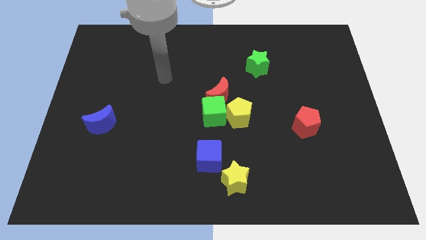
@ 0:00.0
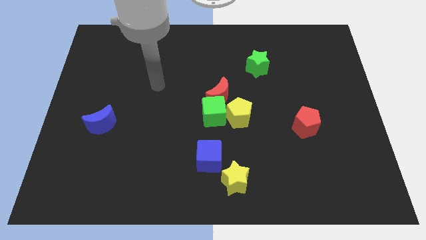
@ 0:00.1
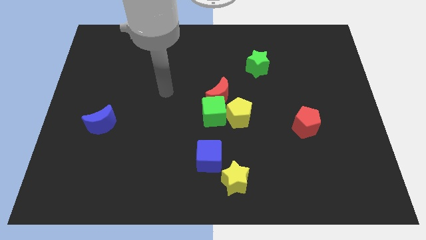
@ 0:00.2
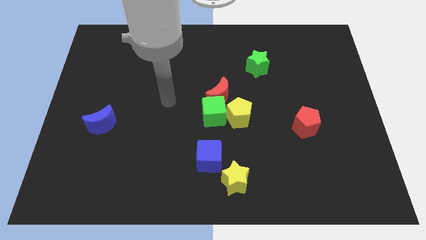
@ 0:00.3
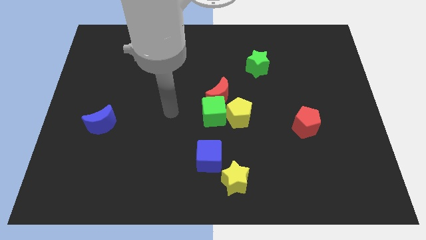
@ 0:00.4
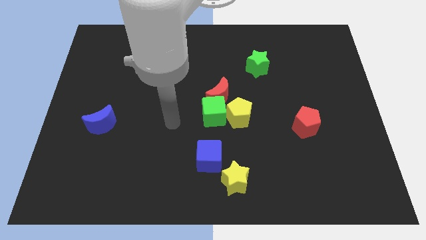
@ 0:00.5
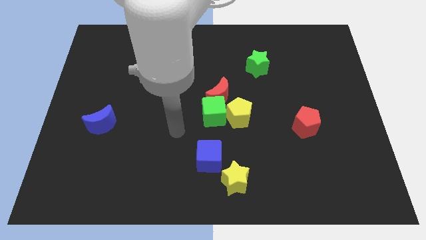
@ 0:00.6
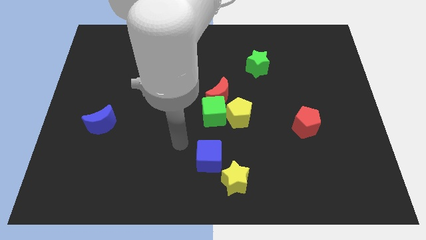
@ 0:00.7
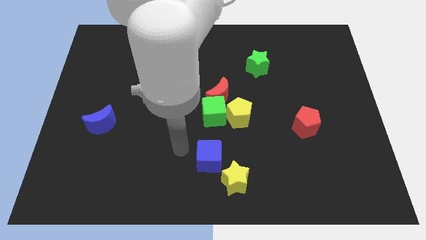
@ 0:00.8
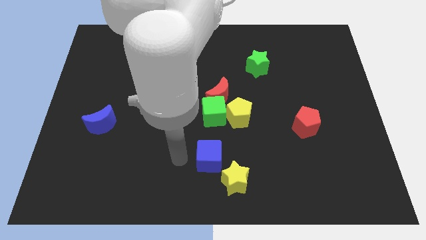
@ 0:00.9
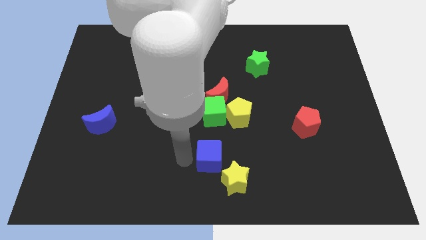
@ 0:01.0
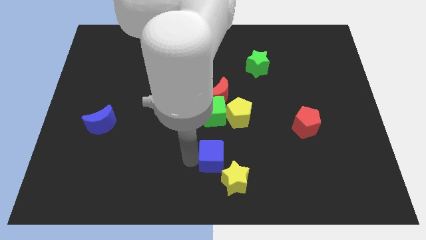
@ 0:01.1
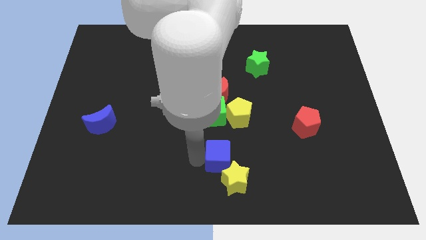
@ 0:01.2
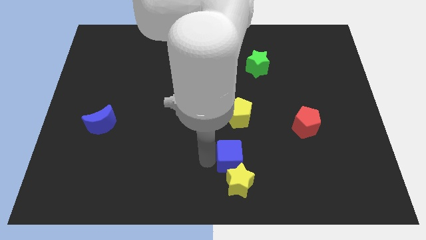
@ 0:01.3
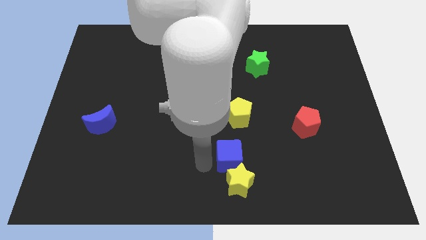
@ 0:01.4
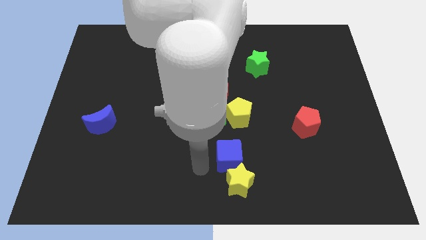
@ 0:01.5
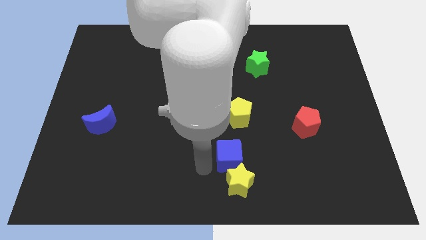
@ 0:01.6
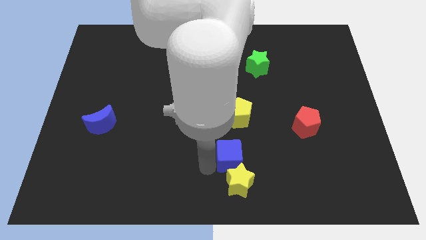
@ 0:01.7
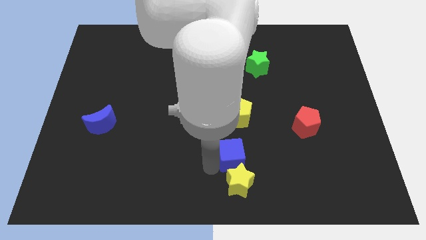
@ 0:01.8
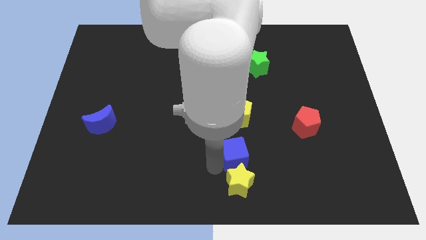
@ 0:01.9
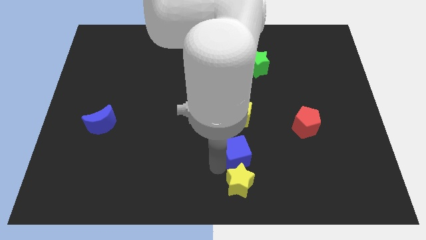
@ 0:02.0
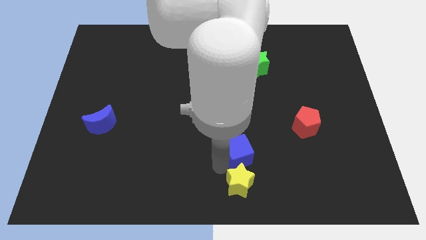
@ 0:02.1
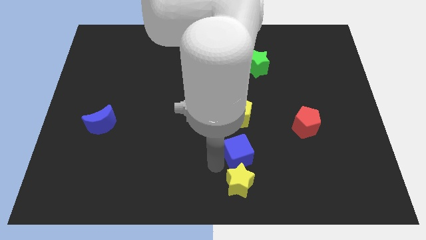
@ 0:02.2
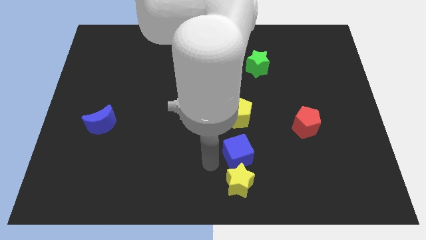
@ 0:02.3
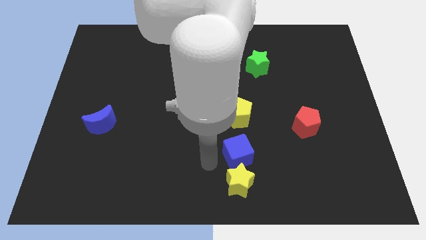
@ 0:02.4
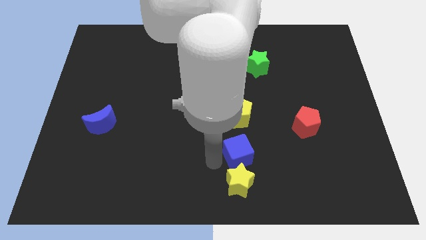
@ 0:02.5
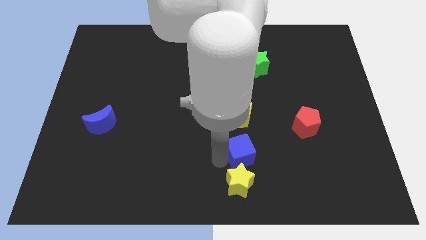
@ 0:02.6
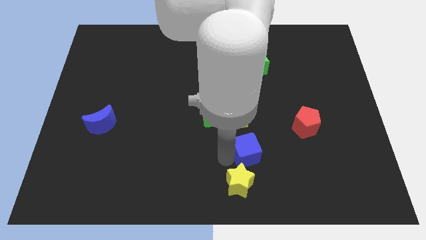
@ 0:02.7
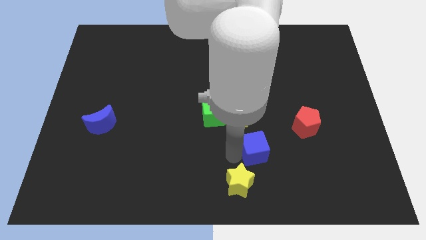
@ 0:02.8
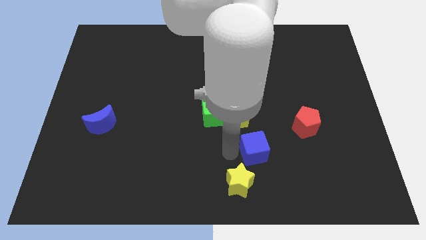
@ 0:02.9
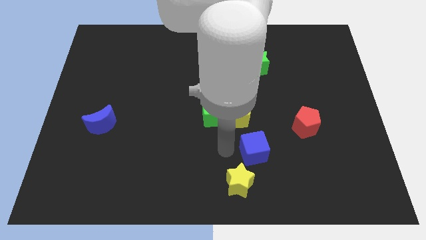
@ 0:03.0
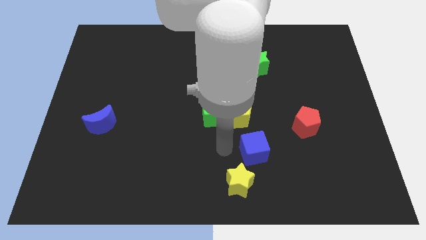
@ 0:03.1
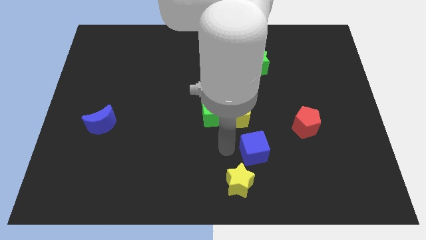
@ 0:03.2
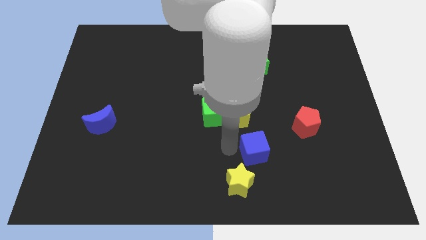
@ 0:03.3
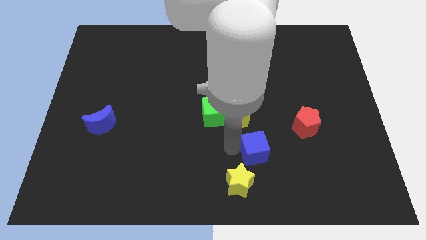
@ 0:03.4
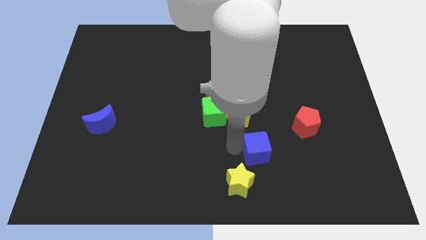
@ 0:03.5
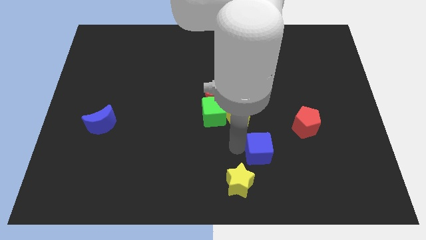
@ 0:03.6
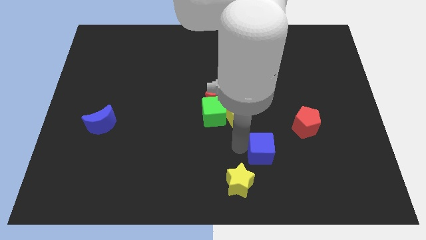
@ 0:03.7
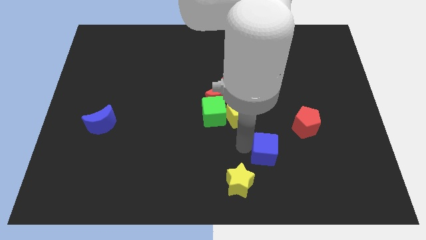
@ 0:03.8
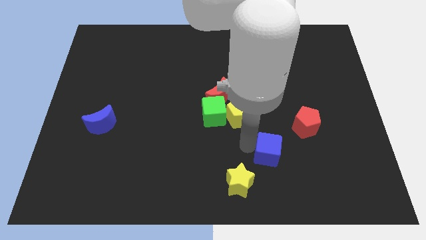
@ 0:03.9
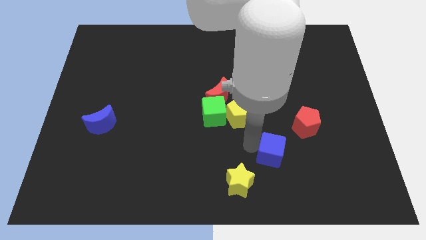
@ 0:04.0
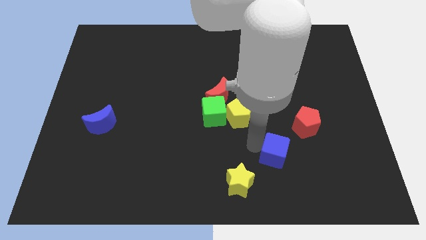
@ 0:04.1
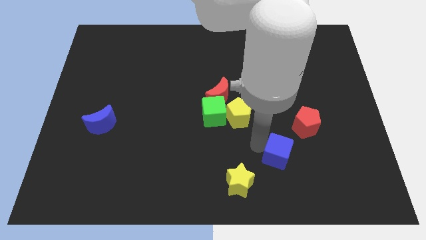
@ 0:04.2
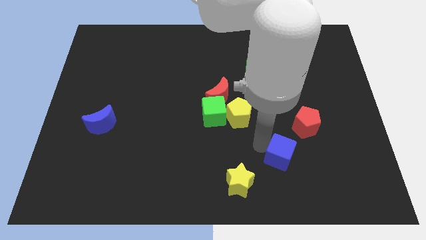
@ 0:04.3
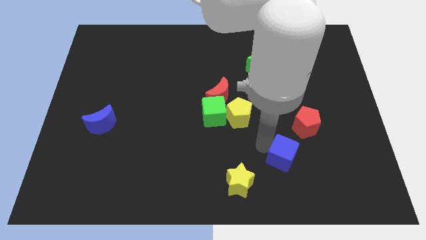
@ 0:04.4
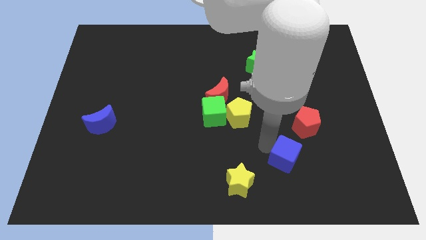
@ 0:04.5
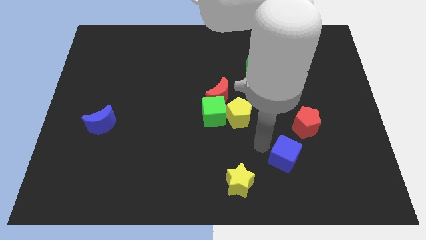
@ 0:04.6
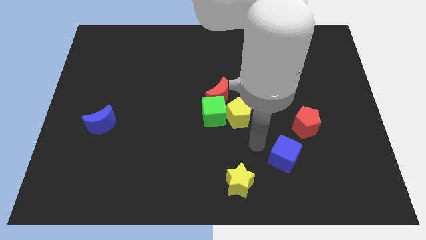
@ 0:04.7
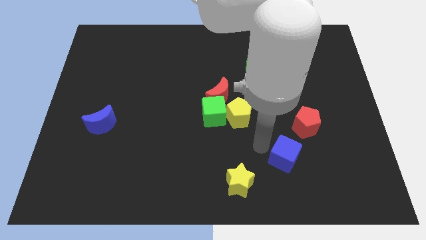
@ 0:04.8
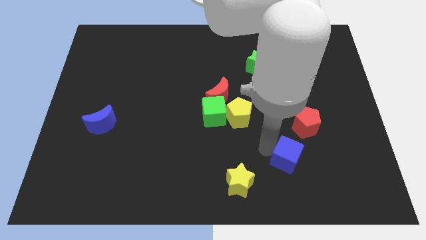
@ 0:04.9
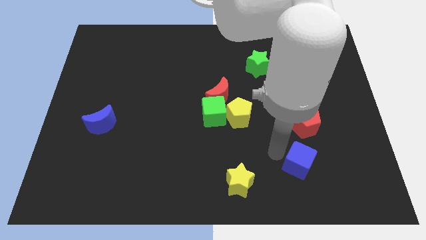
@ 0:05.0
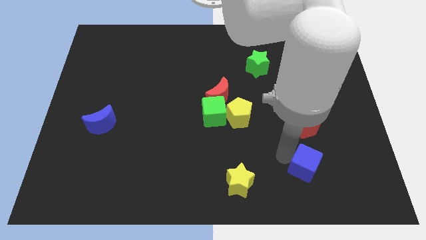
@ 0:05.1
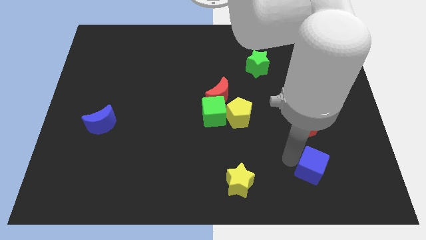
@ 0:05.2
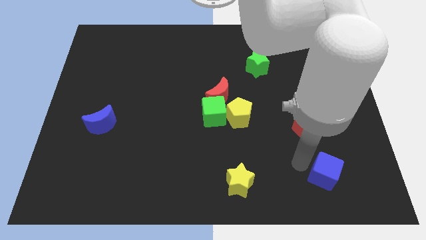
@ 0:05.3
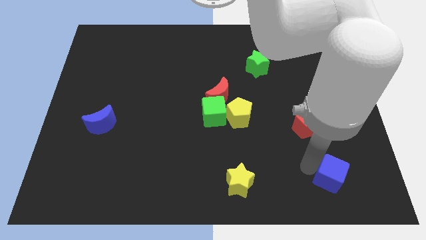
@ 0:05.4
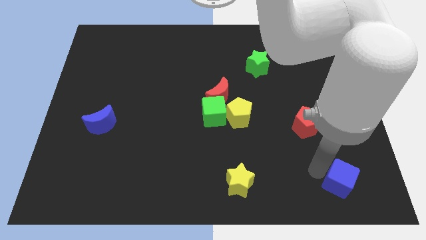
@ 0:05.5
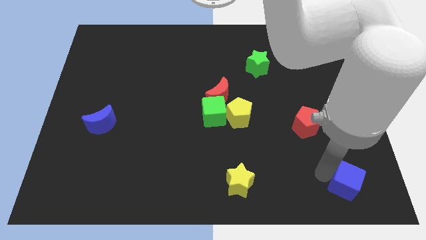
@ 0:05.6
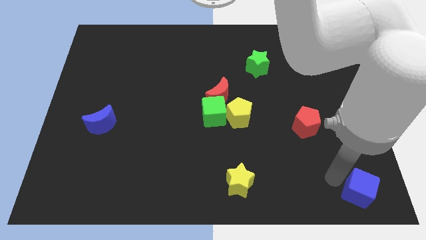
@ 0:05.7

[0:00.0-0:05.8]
move the blue cube to the bottom right corner
